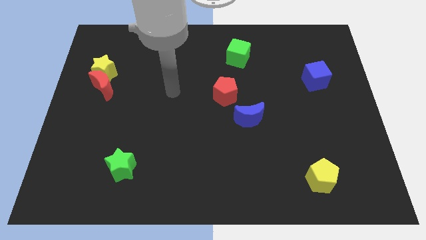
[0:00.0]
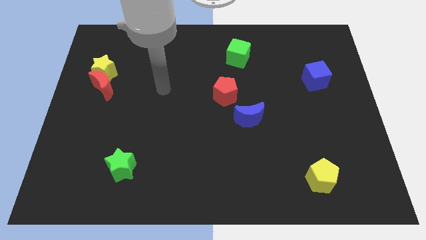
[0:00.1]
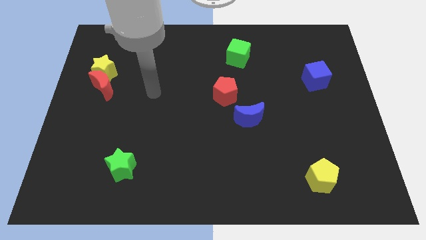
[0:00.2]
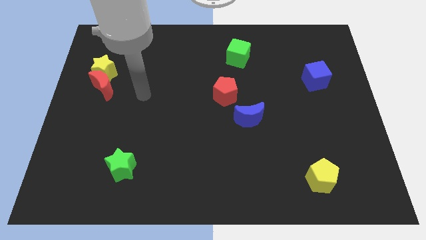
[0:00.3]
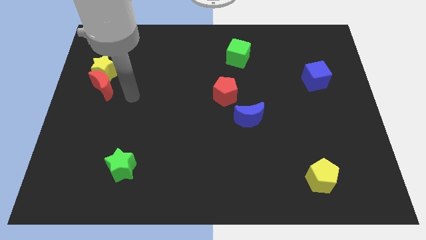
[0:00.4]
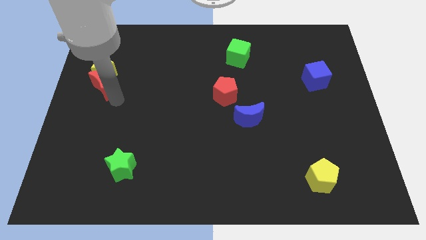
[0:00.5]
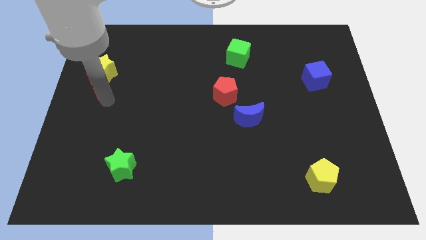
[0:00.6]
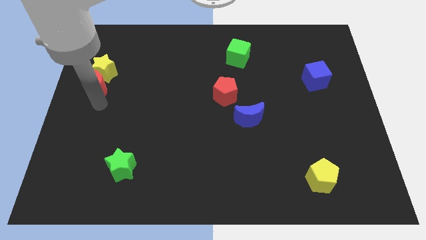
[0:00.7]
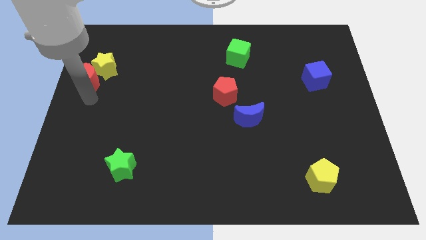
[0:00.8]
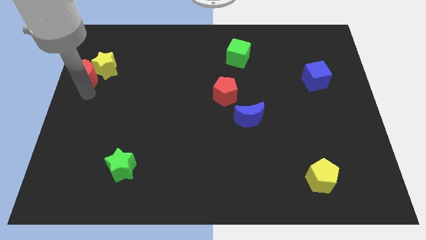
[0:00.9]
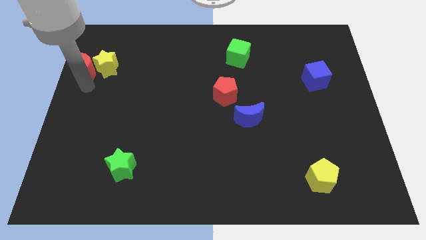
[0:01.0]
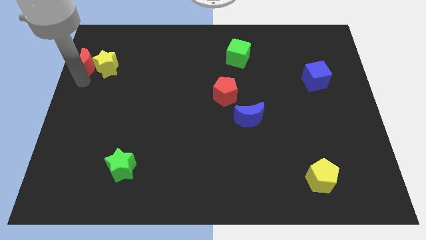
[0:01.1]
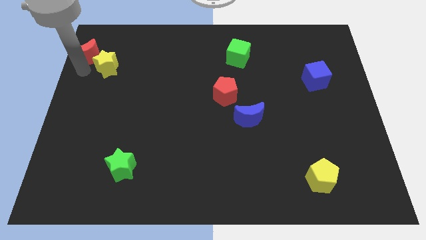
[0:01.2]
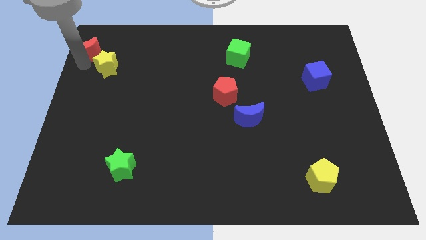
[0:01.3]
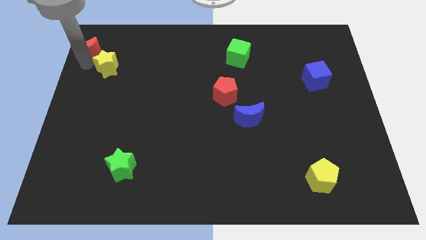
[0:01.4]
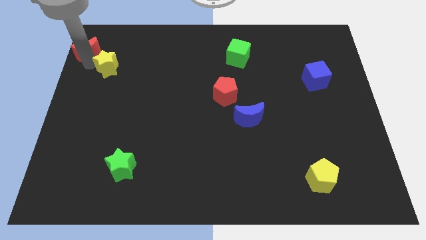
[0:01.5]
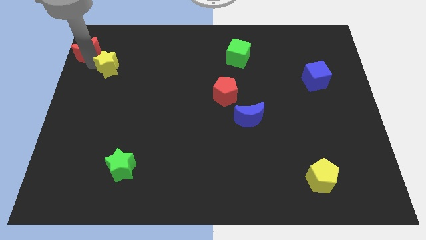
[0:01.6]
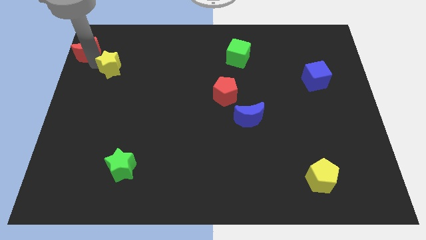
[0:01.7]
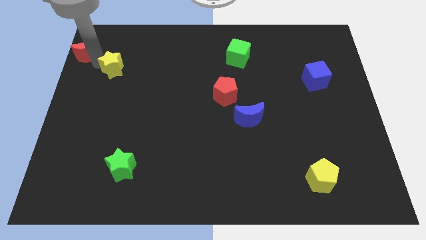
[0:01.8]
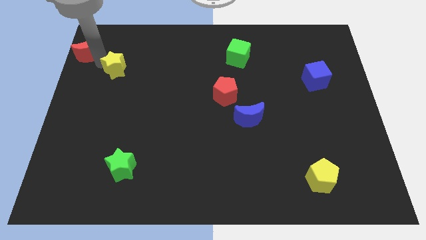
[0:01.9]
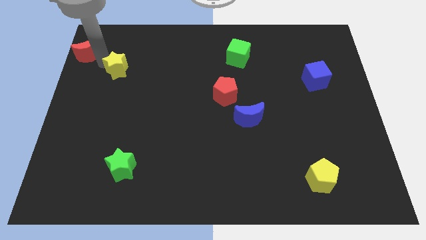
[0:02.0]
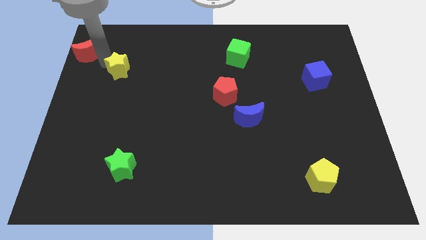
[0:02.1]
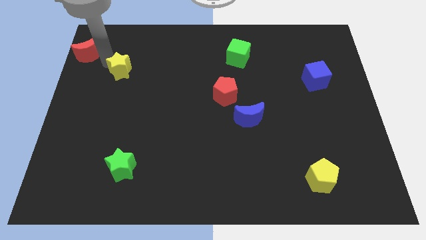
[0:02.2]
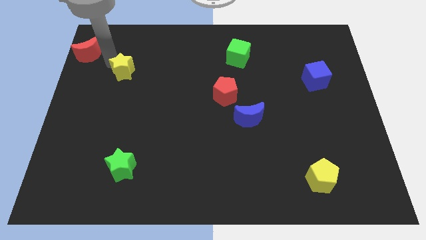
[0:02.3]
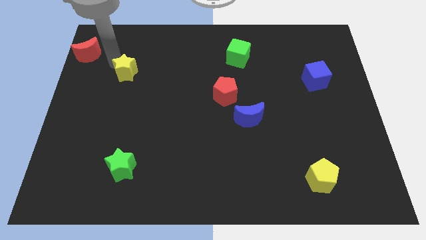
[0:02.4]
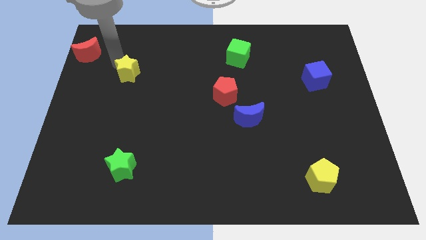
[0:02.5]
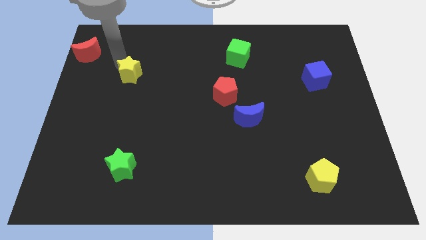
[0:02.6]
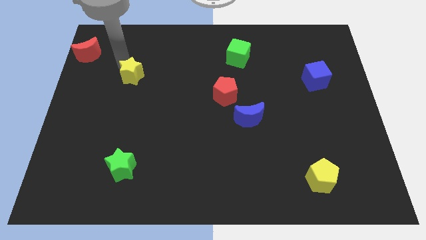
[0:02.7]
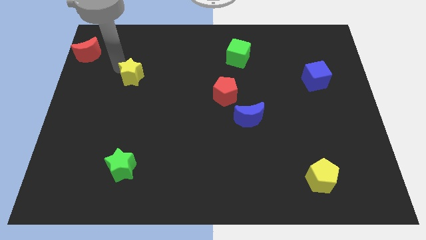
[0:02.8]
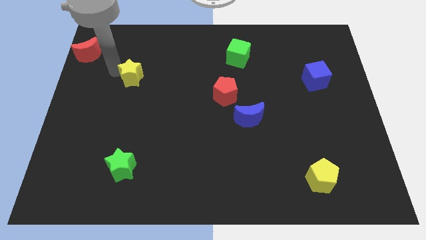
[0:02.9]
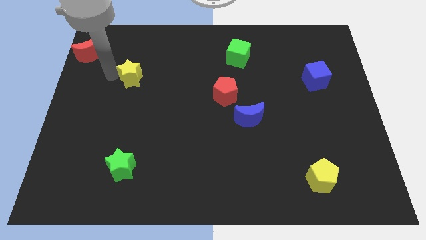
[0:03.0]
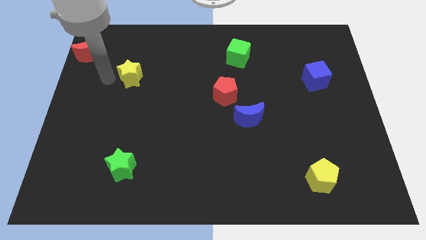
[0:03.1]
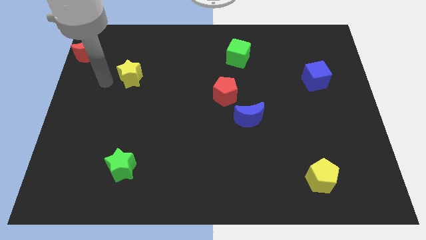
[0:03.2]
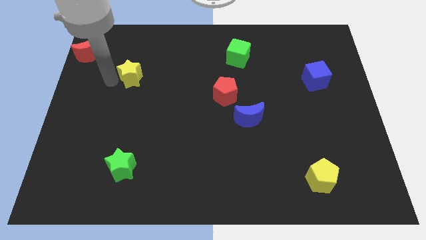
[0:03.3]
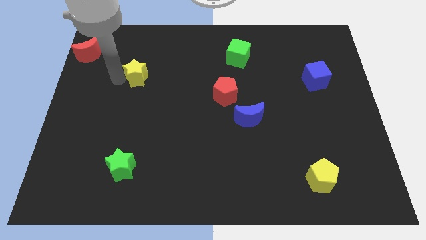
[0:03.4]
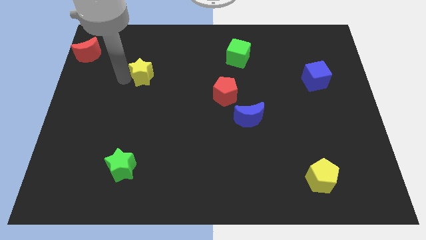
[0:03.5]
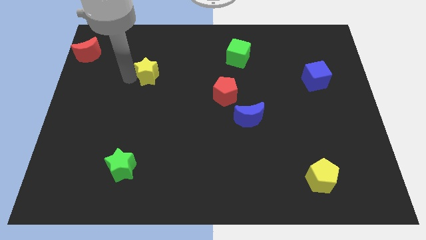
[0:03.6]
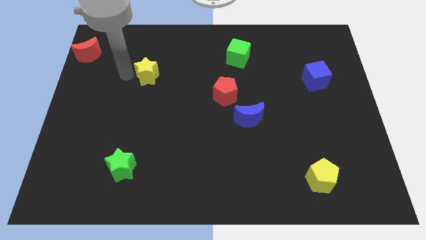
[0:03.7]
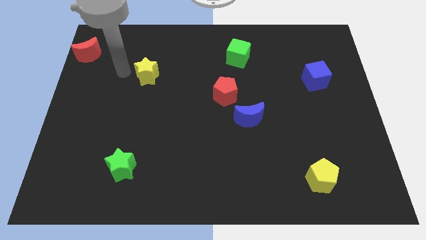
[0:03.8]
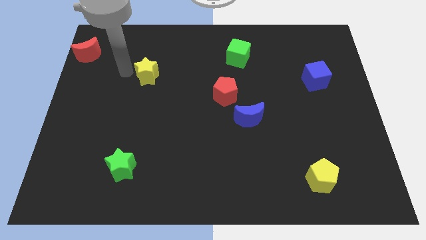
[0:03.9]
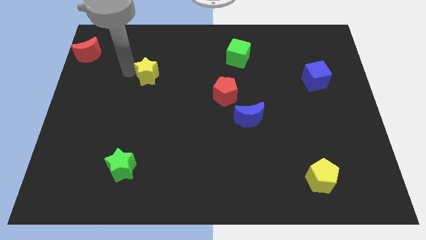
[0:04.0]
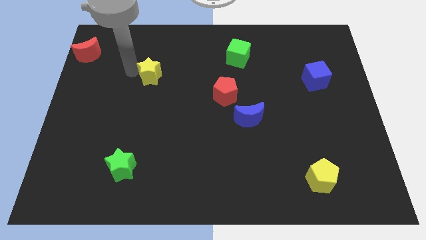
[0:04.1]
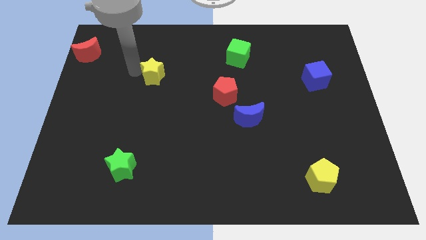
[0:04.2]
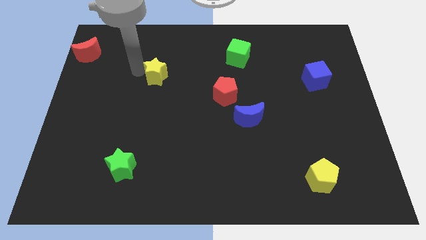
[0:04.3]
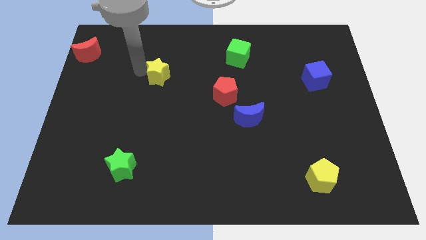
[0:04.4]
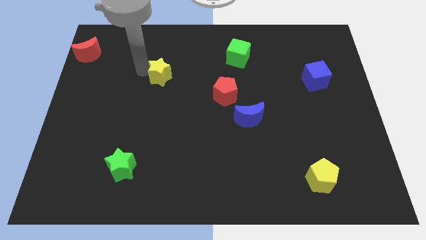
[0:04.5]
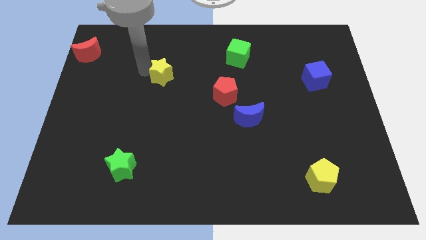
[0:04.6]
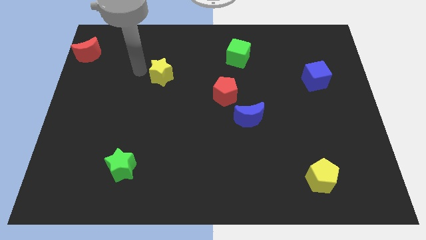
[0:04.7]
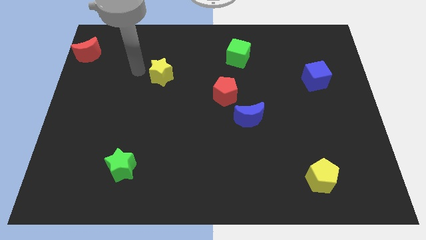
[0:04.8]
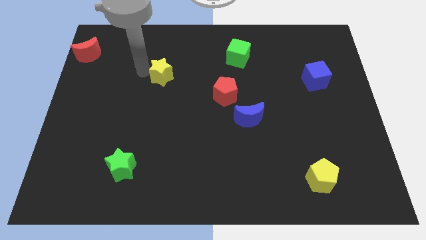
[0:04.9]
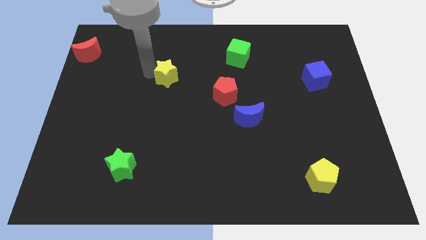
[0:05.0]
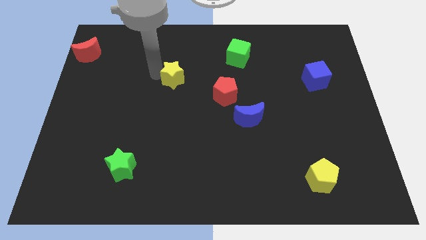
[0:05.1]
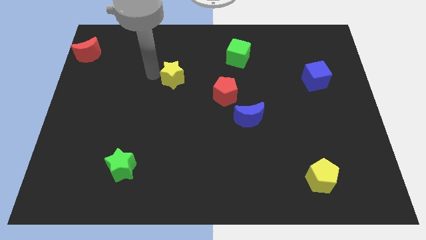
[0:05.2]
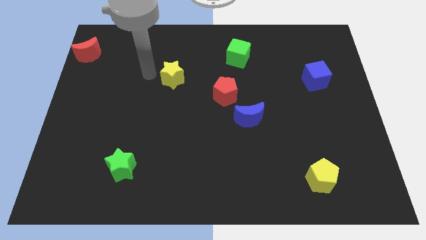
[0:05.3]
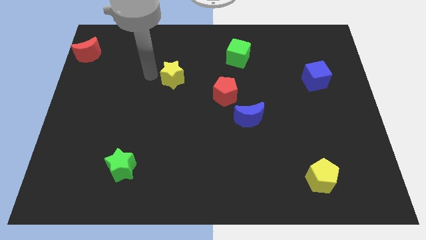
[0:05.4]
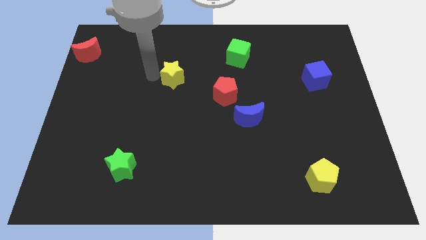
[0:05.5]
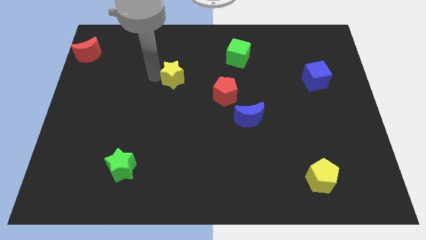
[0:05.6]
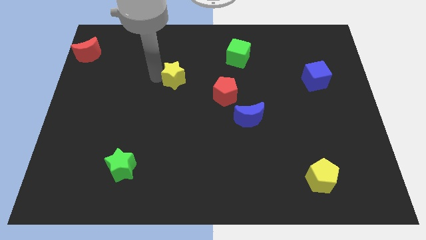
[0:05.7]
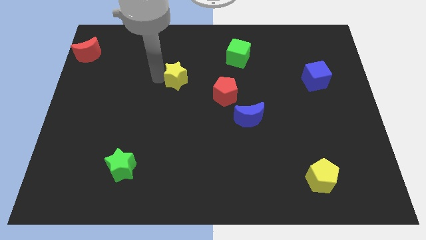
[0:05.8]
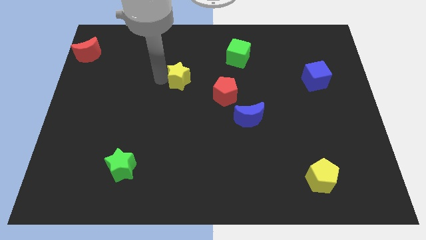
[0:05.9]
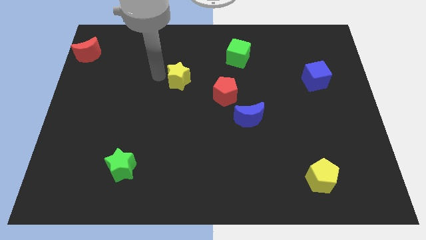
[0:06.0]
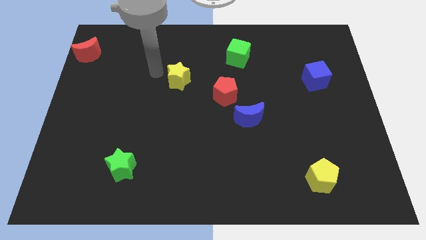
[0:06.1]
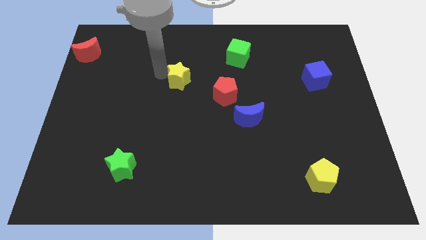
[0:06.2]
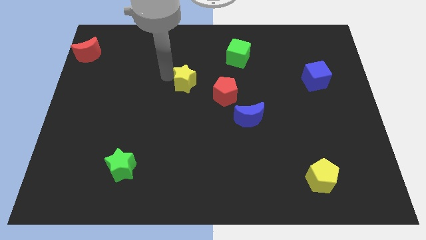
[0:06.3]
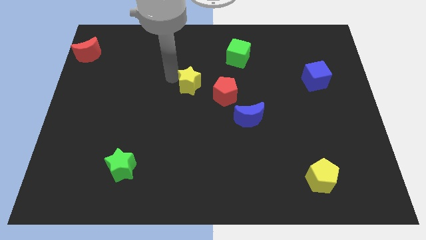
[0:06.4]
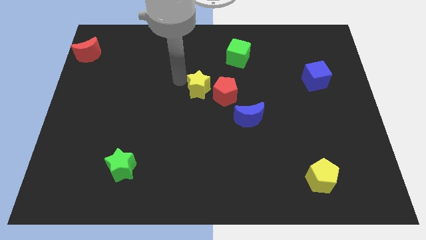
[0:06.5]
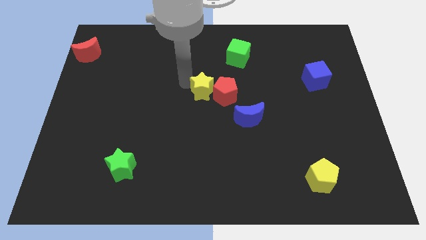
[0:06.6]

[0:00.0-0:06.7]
slide the yellow star to the red pentagon
